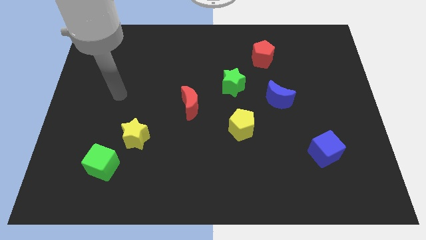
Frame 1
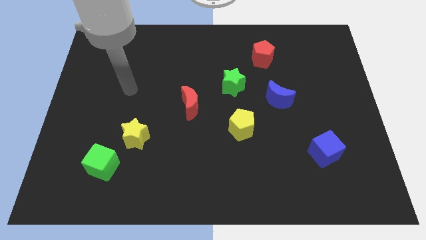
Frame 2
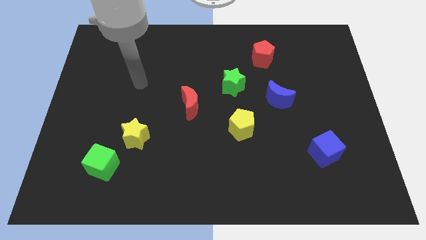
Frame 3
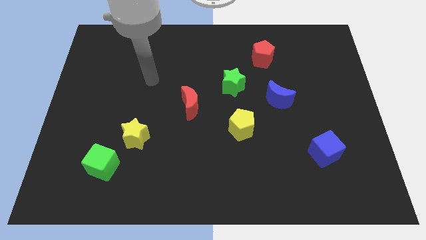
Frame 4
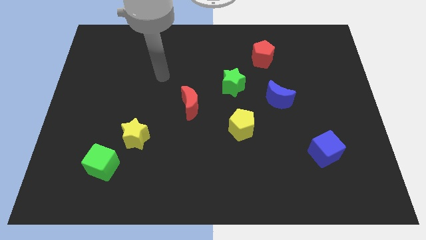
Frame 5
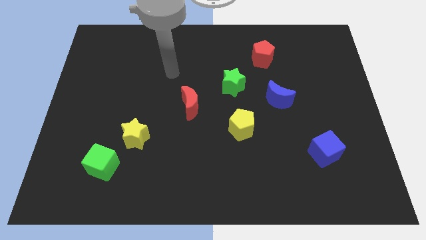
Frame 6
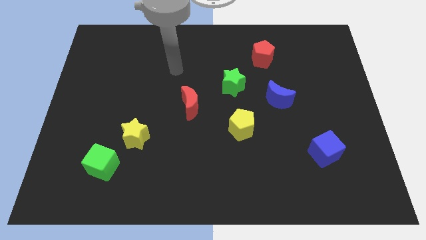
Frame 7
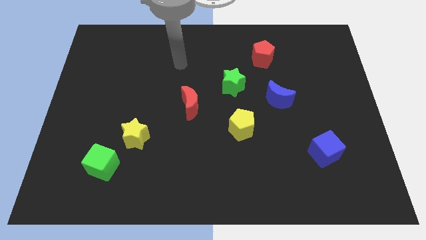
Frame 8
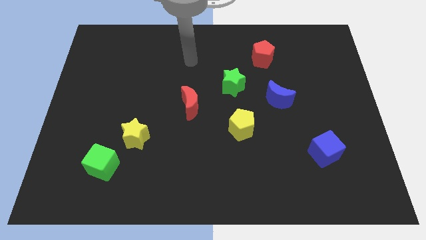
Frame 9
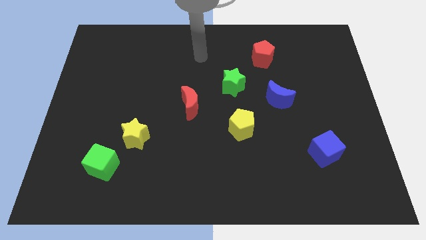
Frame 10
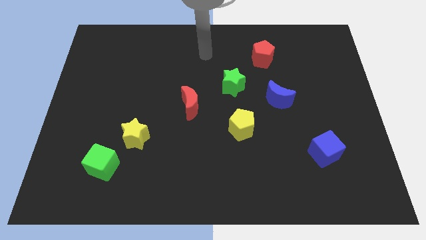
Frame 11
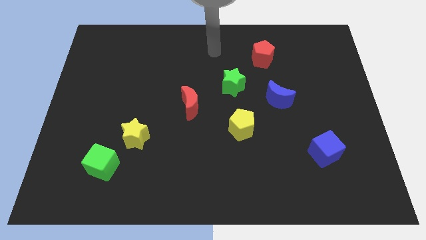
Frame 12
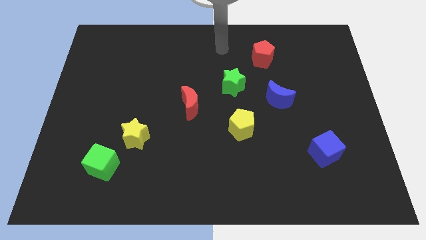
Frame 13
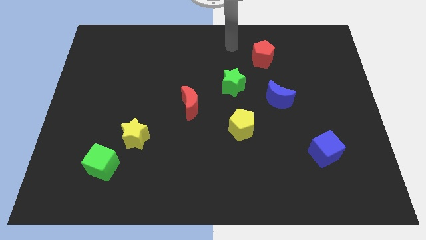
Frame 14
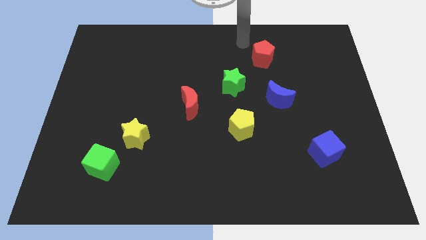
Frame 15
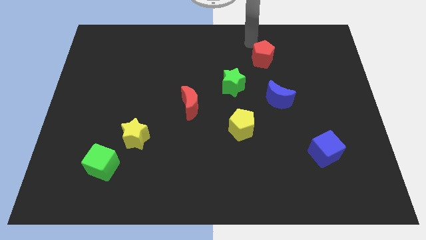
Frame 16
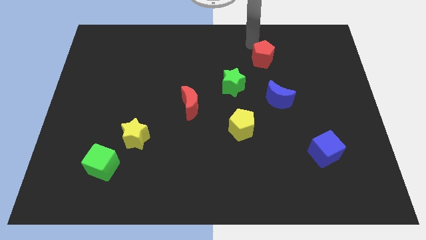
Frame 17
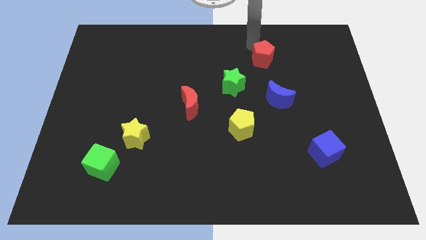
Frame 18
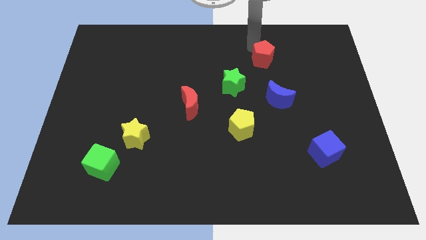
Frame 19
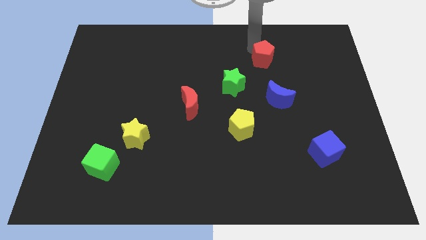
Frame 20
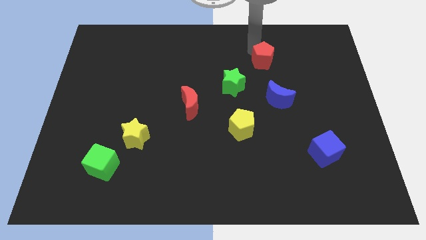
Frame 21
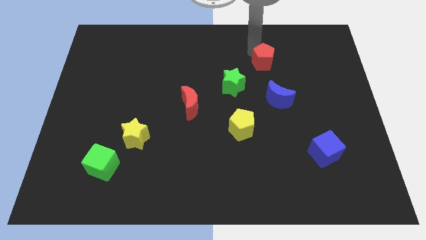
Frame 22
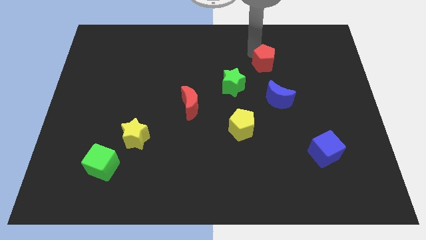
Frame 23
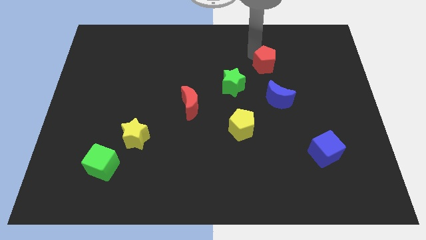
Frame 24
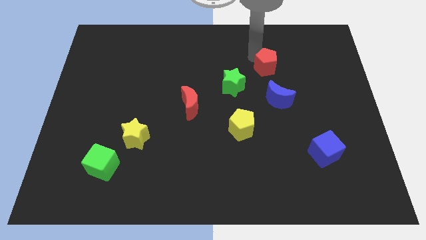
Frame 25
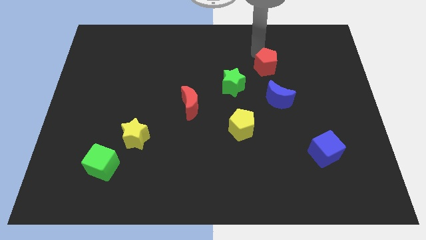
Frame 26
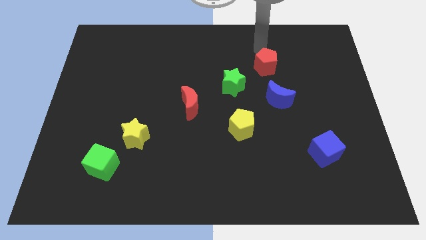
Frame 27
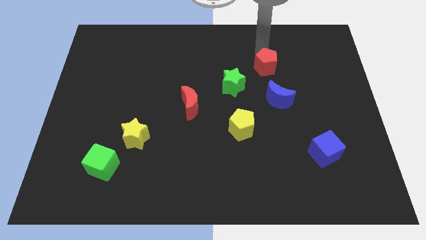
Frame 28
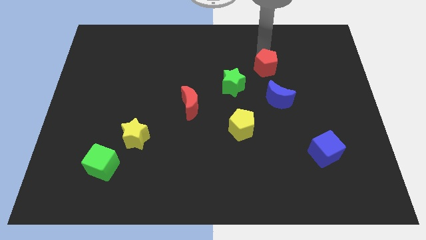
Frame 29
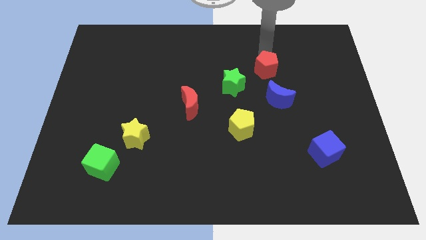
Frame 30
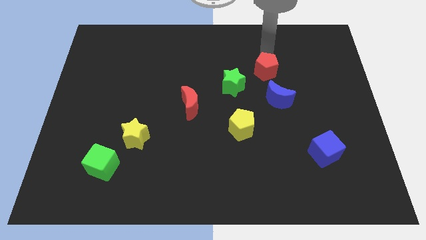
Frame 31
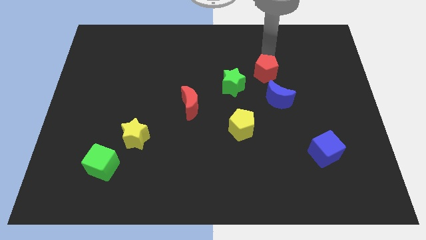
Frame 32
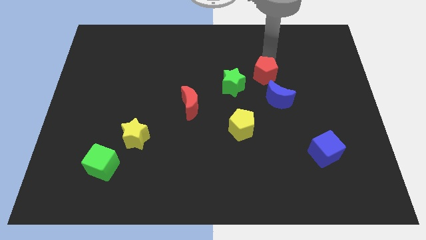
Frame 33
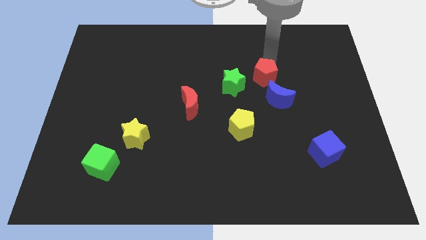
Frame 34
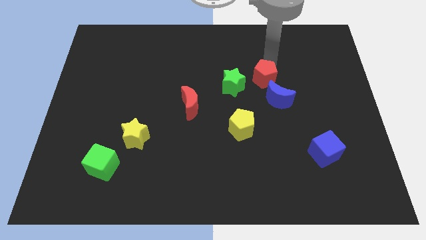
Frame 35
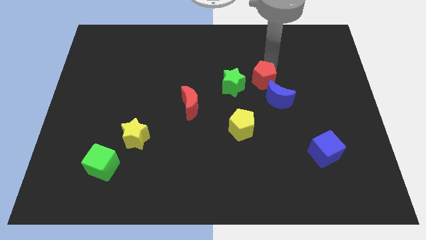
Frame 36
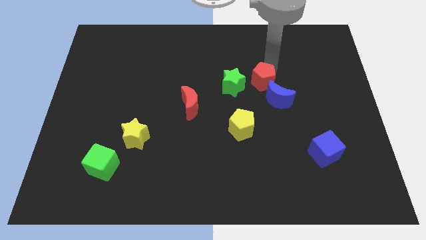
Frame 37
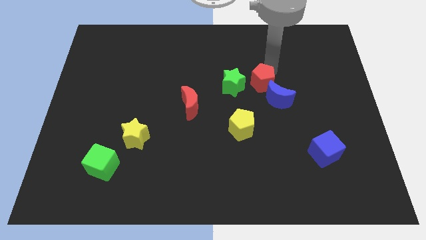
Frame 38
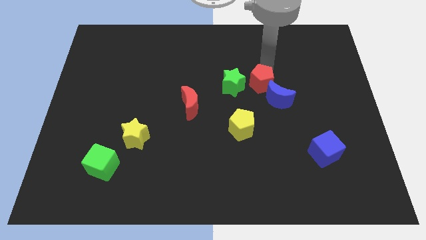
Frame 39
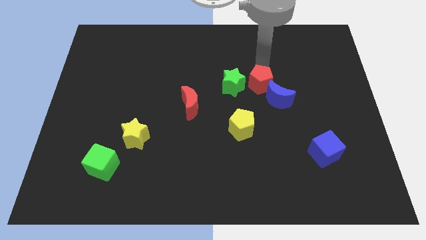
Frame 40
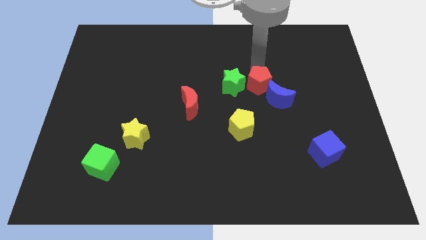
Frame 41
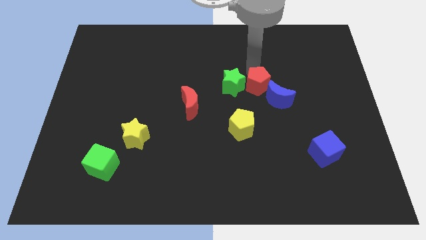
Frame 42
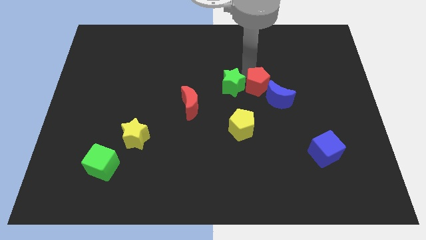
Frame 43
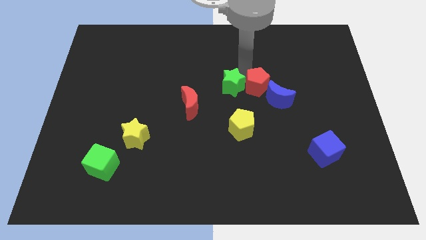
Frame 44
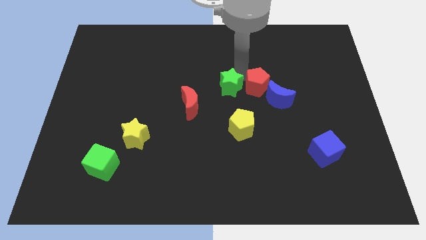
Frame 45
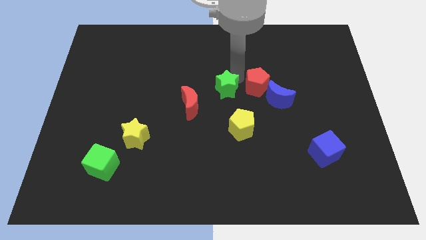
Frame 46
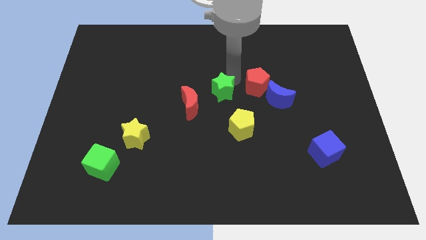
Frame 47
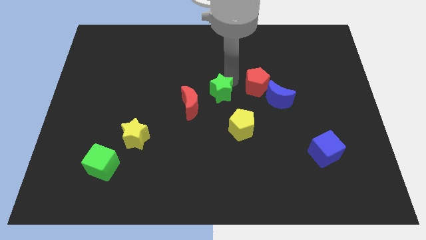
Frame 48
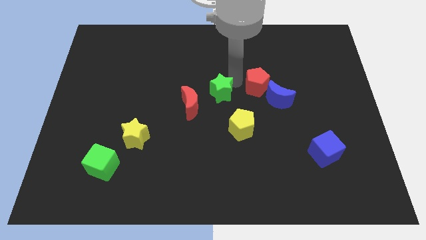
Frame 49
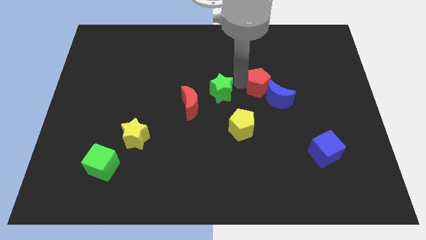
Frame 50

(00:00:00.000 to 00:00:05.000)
move the red pentagon towards the blue moon

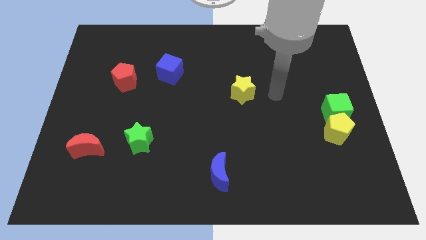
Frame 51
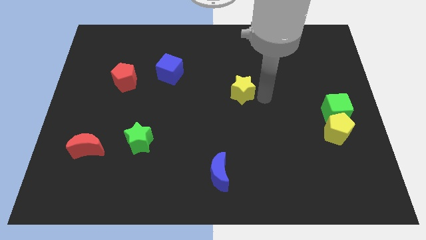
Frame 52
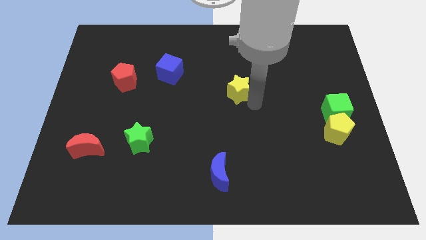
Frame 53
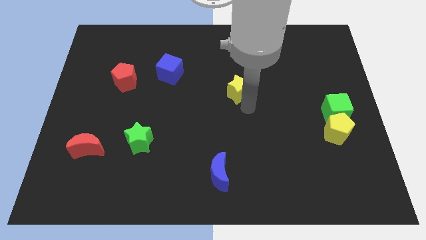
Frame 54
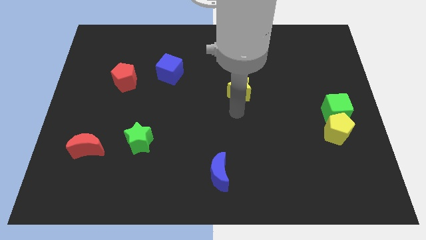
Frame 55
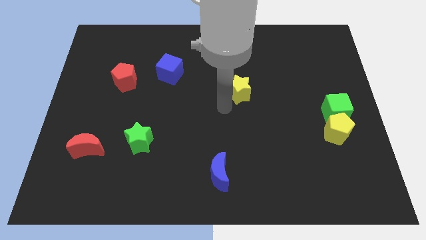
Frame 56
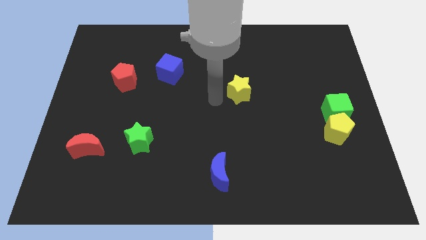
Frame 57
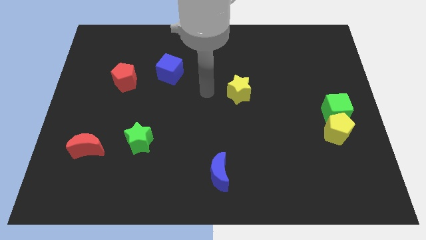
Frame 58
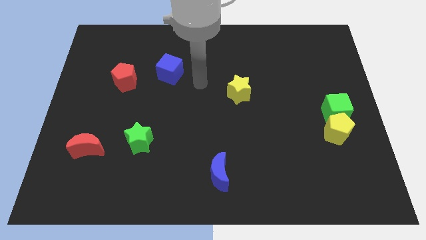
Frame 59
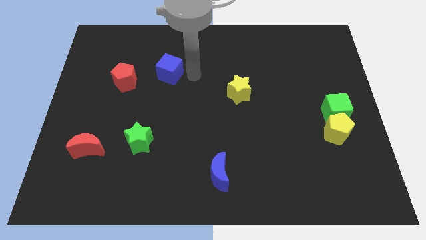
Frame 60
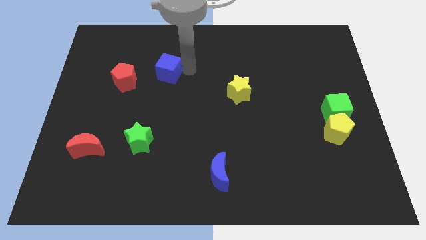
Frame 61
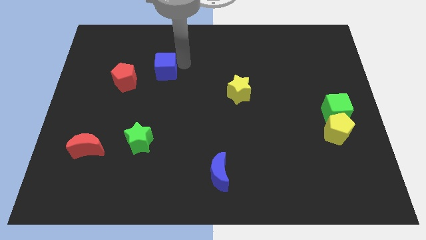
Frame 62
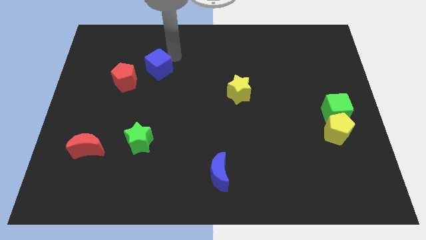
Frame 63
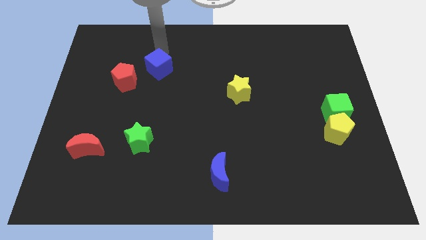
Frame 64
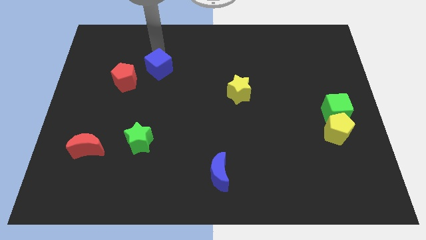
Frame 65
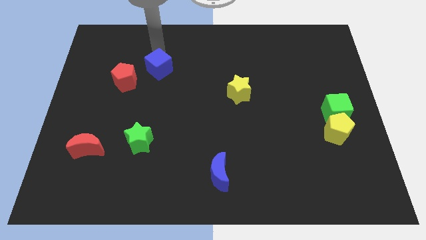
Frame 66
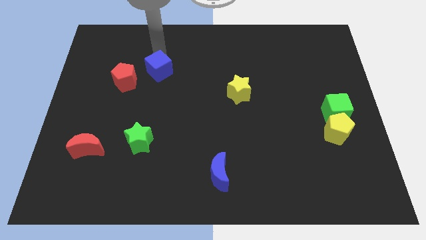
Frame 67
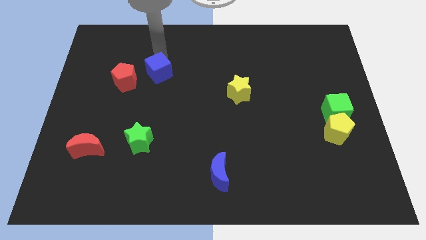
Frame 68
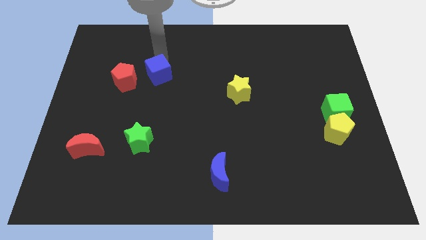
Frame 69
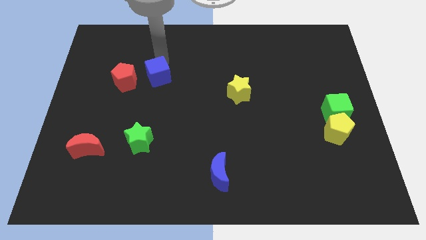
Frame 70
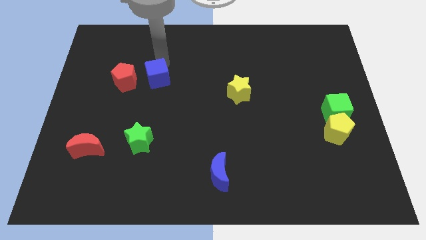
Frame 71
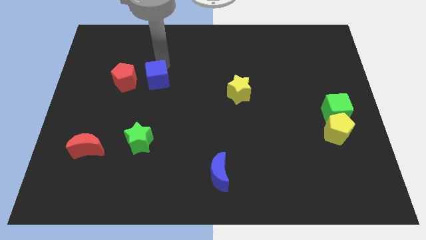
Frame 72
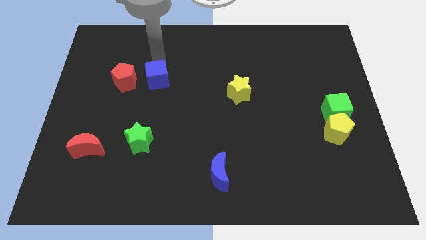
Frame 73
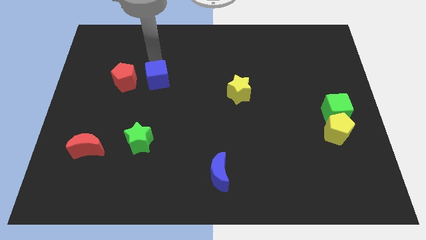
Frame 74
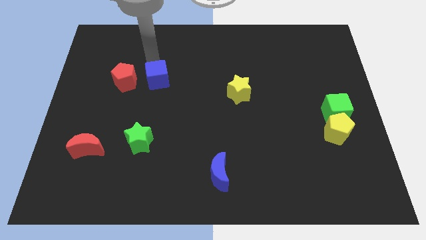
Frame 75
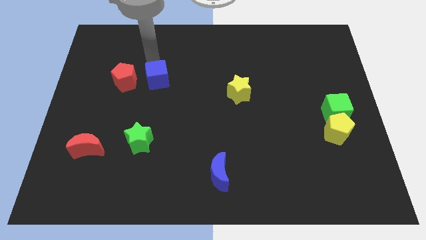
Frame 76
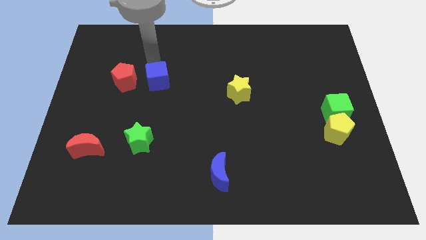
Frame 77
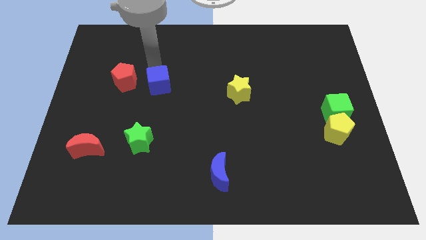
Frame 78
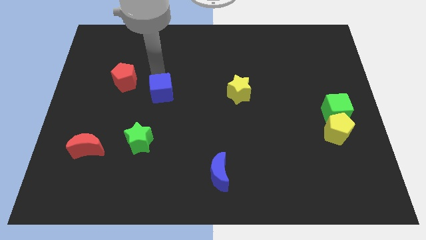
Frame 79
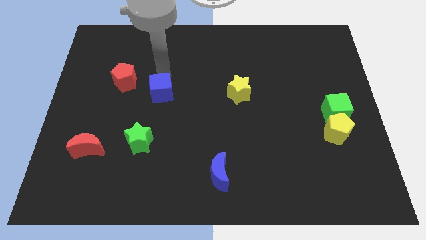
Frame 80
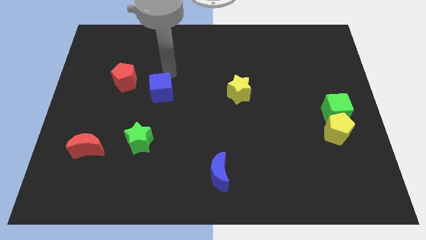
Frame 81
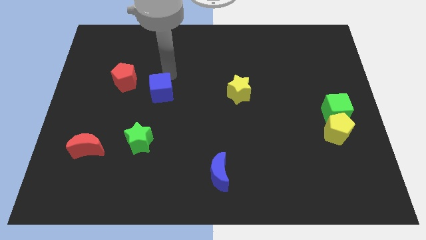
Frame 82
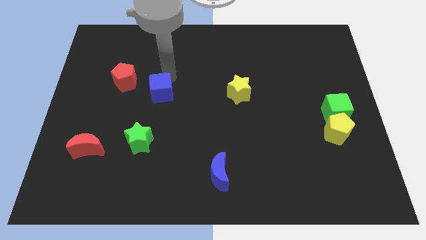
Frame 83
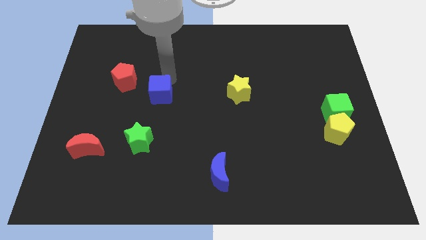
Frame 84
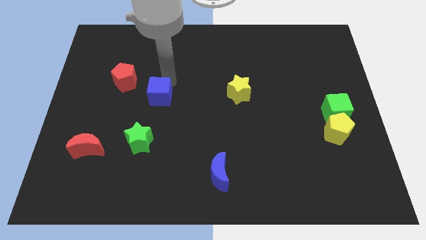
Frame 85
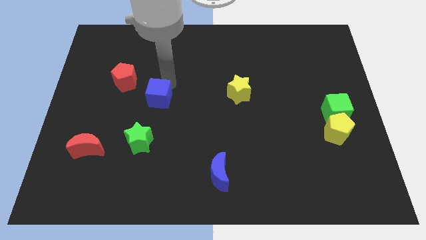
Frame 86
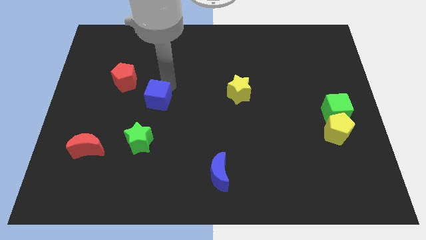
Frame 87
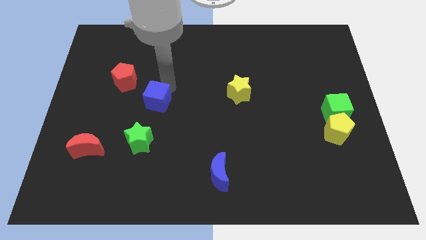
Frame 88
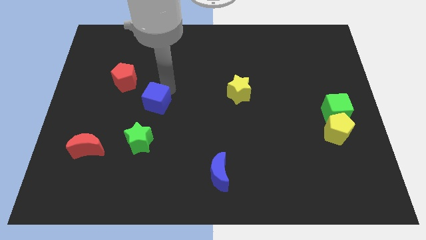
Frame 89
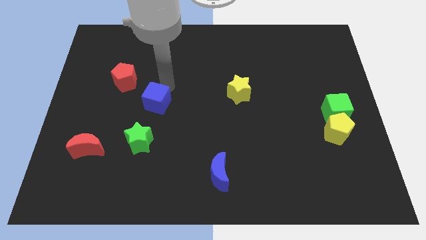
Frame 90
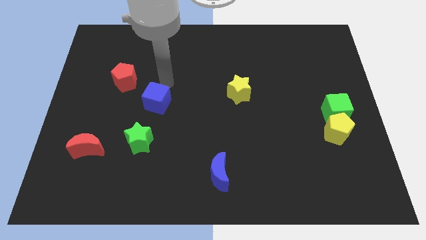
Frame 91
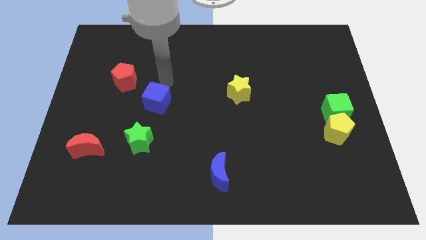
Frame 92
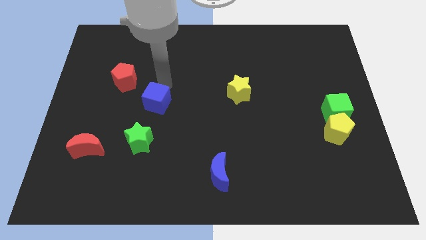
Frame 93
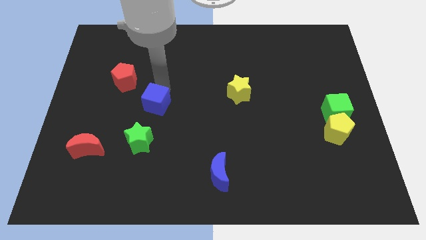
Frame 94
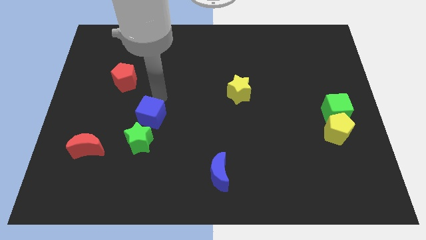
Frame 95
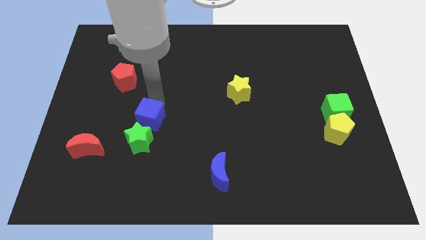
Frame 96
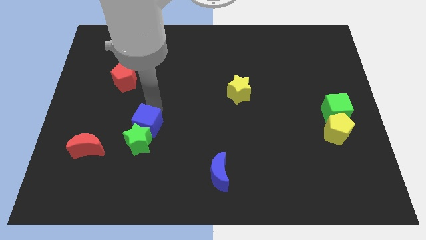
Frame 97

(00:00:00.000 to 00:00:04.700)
slide the blue cube towards the green star
